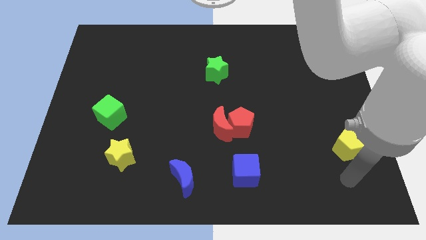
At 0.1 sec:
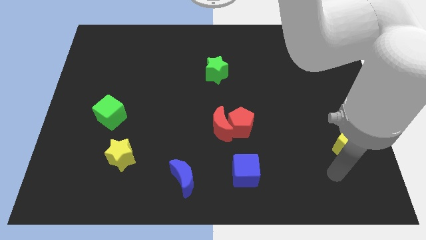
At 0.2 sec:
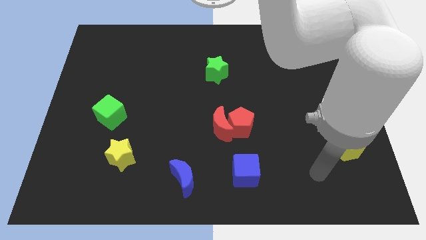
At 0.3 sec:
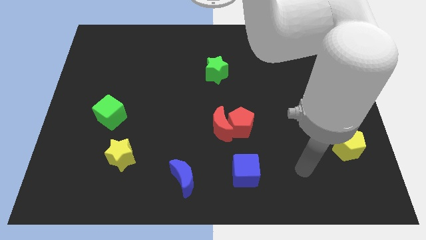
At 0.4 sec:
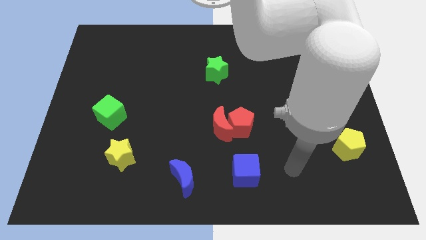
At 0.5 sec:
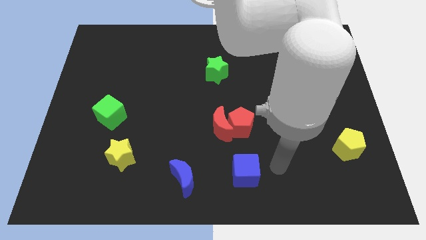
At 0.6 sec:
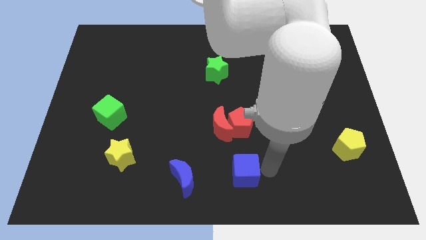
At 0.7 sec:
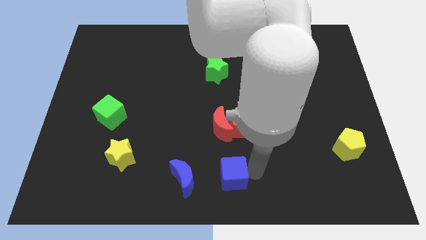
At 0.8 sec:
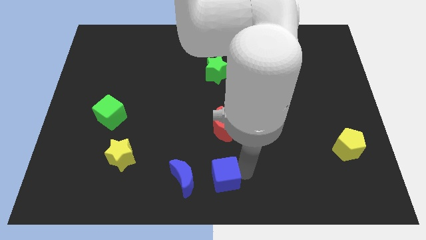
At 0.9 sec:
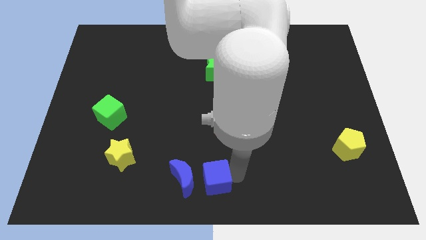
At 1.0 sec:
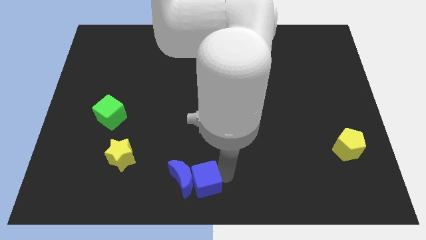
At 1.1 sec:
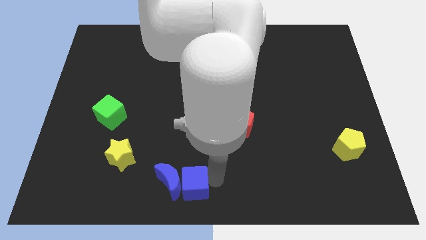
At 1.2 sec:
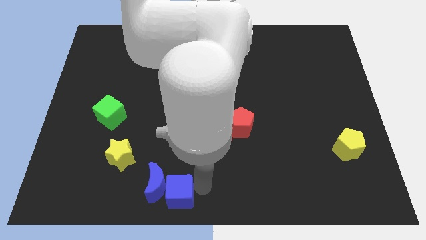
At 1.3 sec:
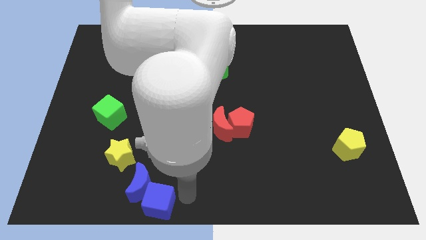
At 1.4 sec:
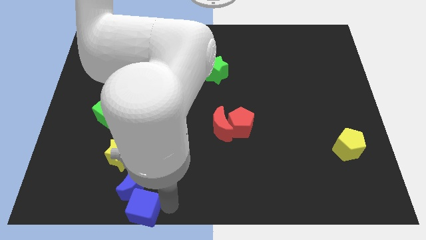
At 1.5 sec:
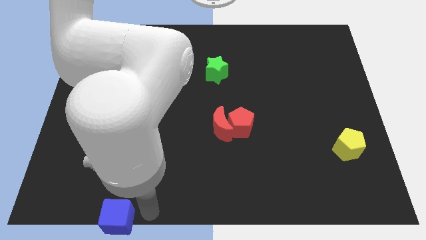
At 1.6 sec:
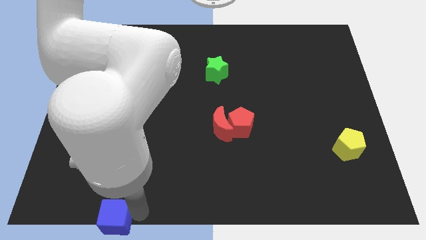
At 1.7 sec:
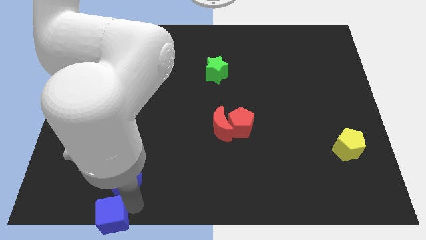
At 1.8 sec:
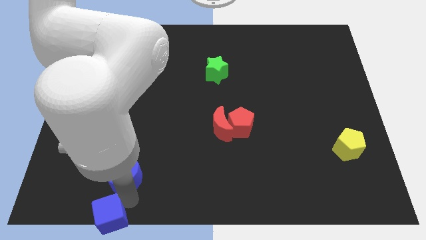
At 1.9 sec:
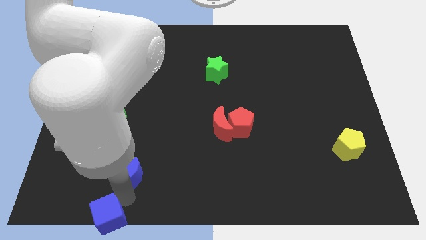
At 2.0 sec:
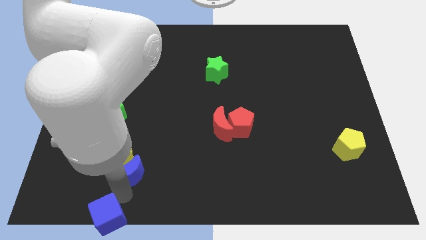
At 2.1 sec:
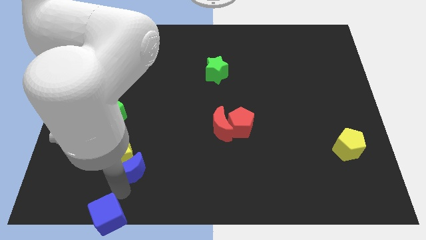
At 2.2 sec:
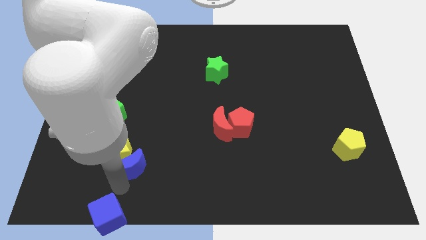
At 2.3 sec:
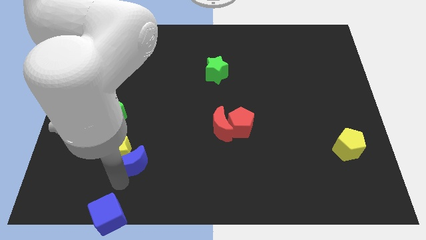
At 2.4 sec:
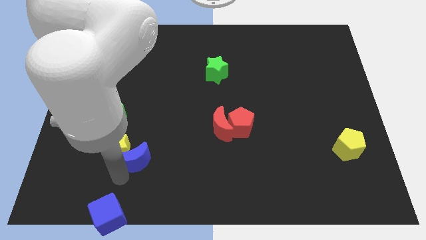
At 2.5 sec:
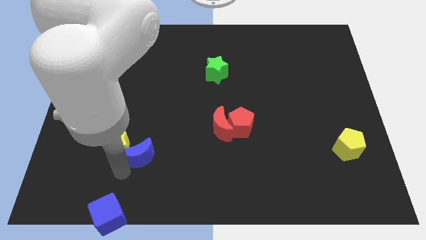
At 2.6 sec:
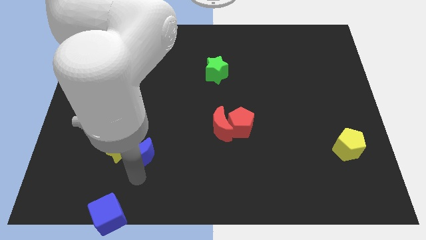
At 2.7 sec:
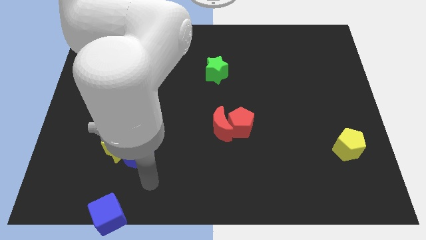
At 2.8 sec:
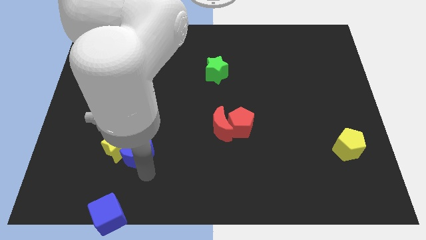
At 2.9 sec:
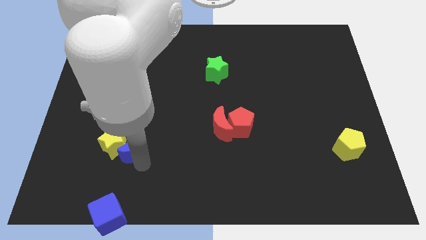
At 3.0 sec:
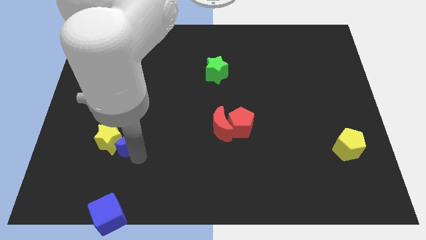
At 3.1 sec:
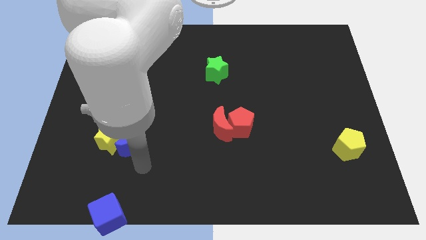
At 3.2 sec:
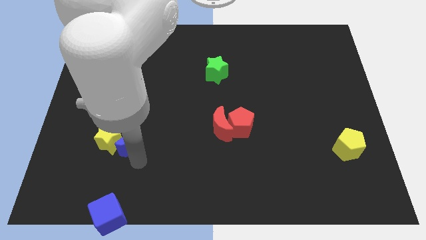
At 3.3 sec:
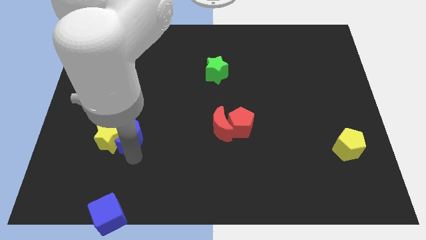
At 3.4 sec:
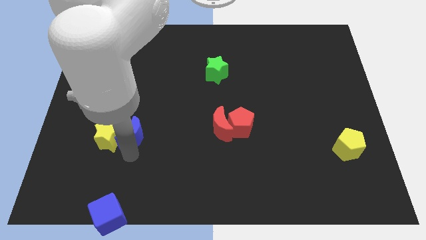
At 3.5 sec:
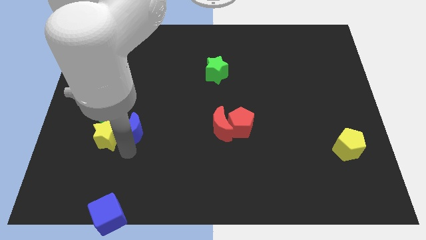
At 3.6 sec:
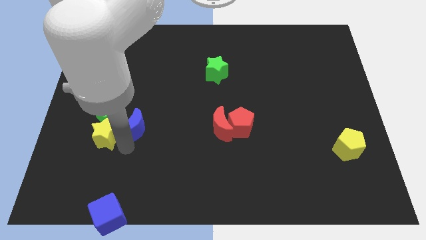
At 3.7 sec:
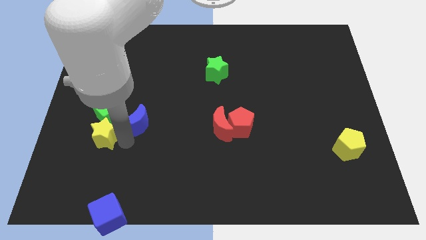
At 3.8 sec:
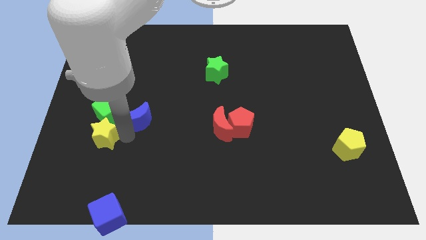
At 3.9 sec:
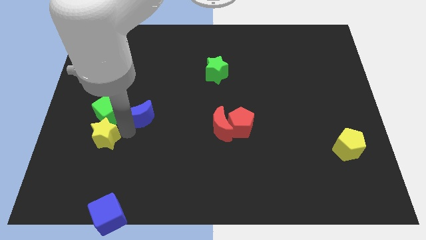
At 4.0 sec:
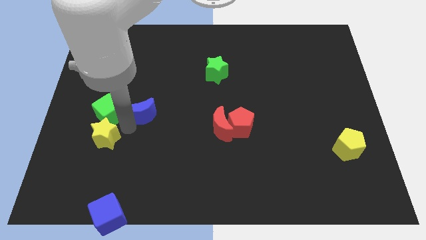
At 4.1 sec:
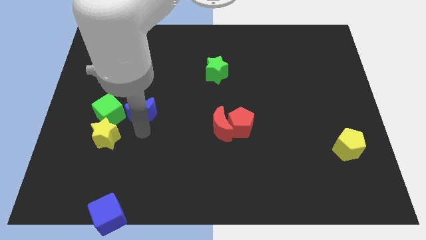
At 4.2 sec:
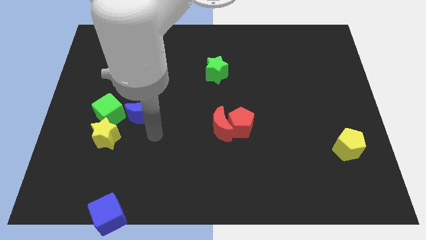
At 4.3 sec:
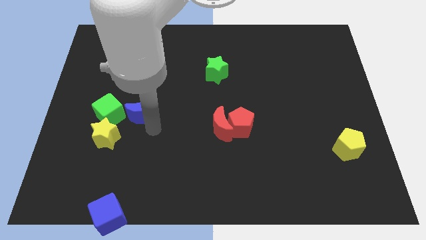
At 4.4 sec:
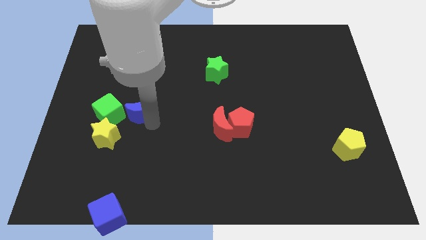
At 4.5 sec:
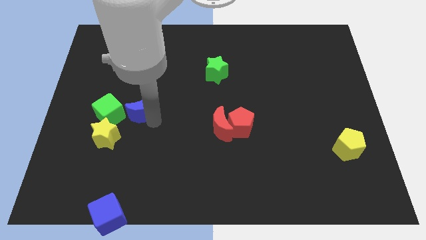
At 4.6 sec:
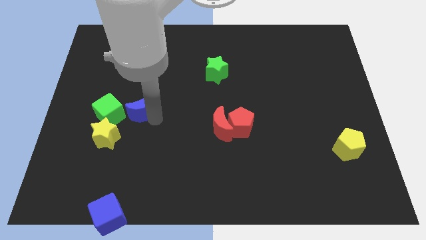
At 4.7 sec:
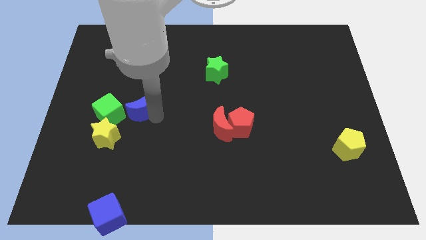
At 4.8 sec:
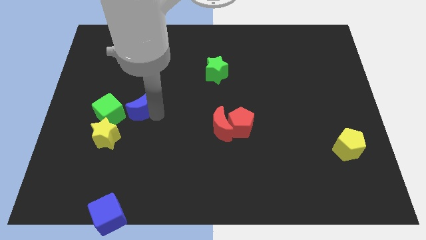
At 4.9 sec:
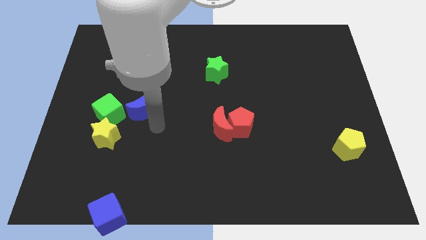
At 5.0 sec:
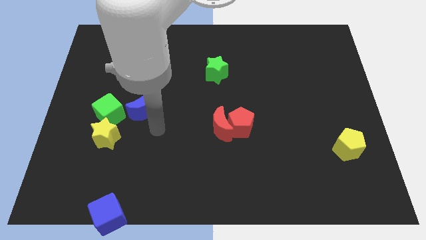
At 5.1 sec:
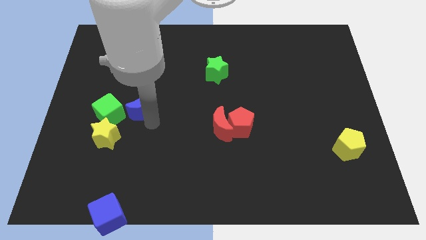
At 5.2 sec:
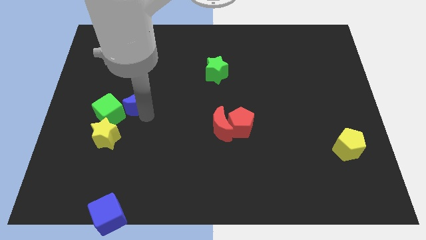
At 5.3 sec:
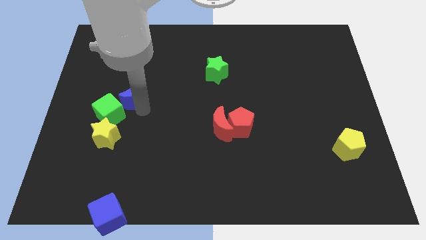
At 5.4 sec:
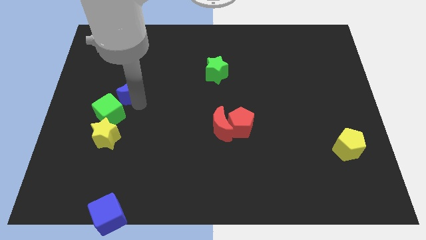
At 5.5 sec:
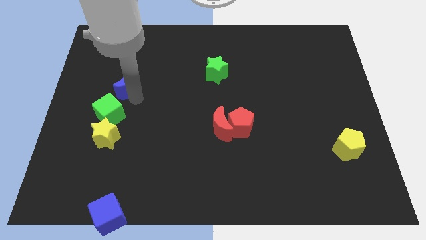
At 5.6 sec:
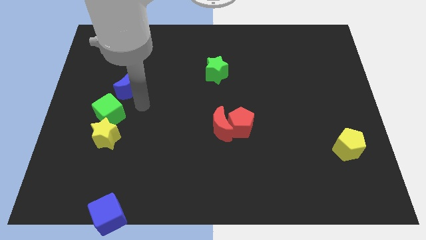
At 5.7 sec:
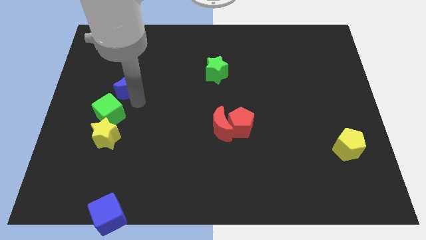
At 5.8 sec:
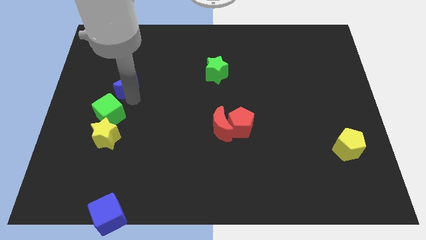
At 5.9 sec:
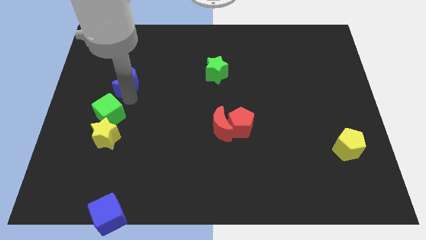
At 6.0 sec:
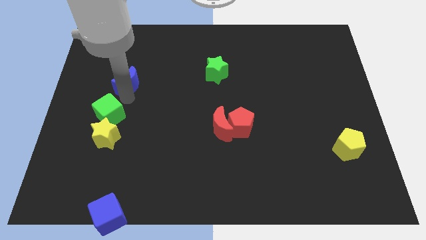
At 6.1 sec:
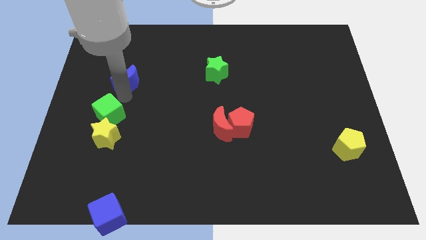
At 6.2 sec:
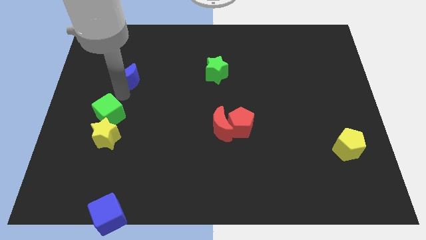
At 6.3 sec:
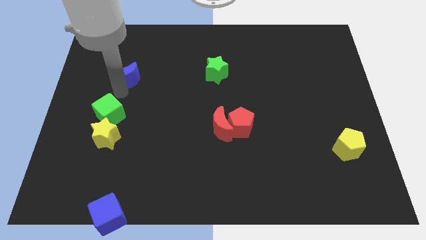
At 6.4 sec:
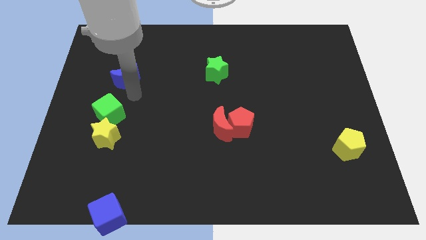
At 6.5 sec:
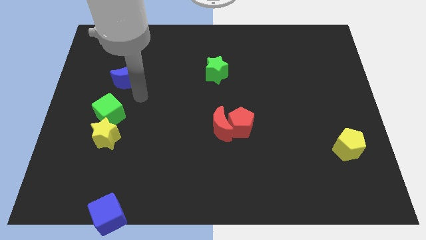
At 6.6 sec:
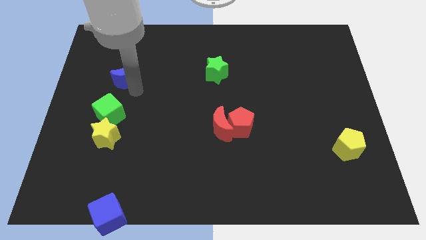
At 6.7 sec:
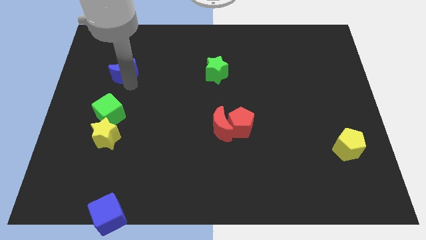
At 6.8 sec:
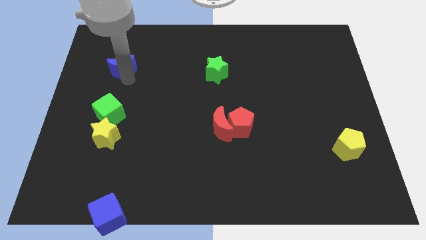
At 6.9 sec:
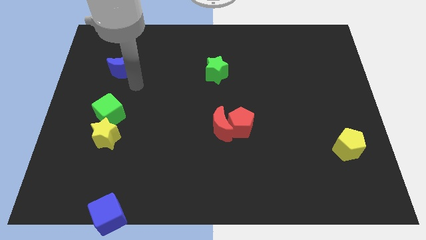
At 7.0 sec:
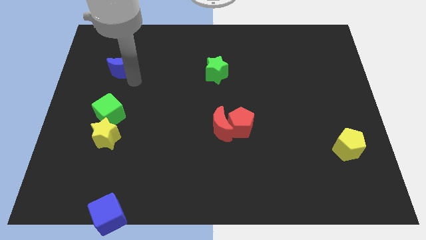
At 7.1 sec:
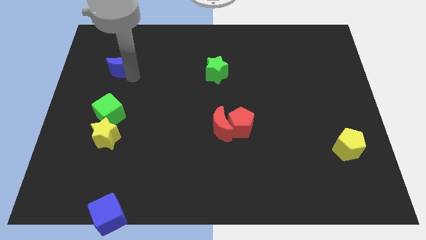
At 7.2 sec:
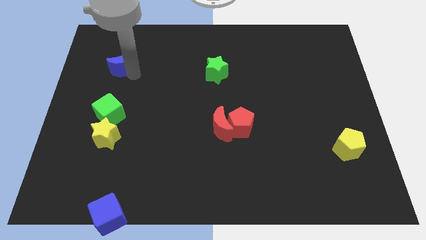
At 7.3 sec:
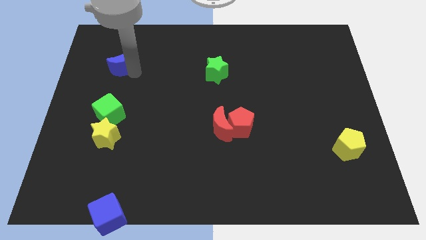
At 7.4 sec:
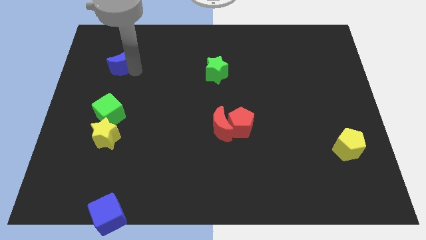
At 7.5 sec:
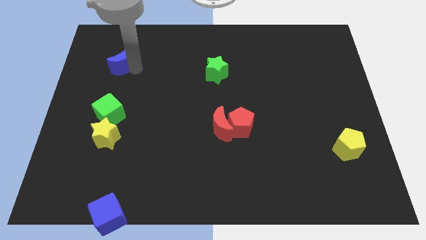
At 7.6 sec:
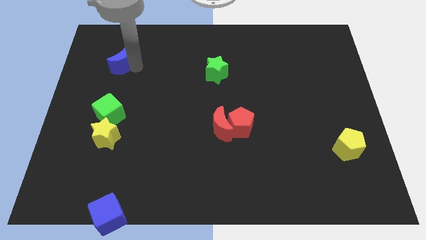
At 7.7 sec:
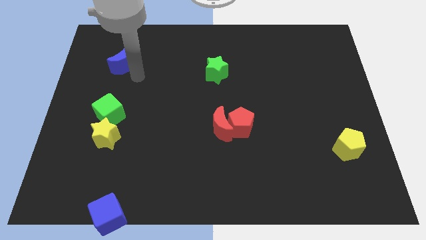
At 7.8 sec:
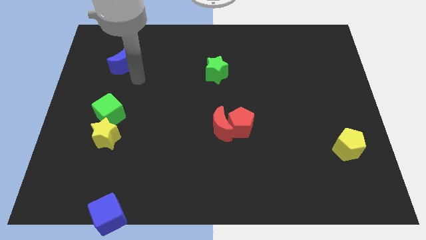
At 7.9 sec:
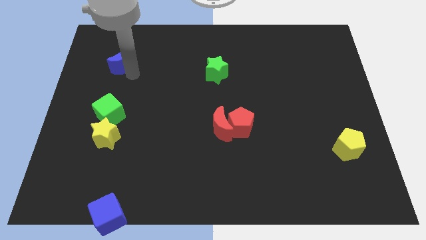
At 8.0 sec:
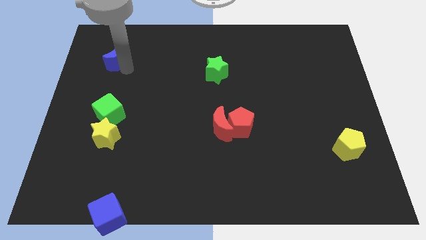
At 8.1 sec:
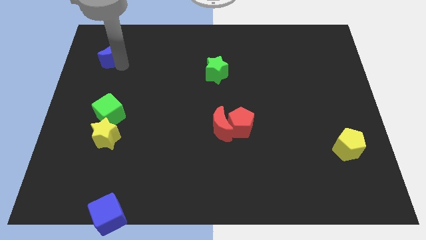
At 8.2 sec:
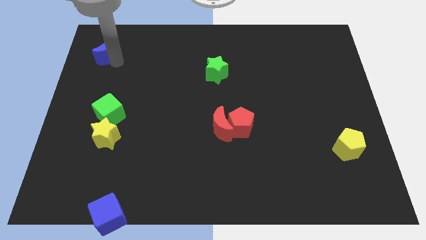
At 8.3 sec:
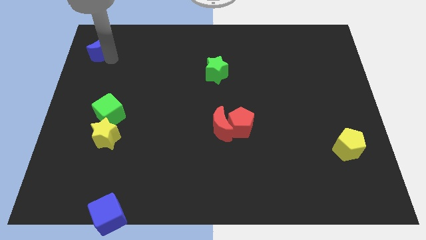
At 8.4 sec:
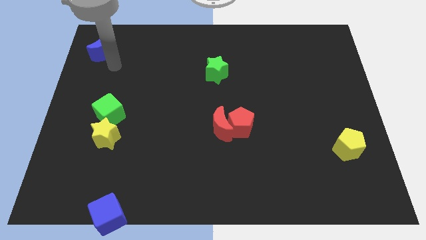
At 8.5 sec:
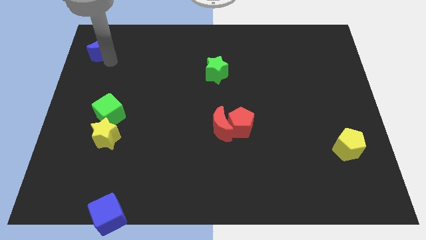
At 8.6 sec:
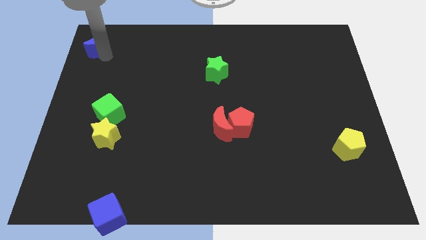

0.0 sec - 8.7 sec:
slide the blue moon to the top left
